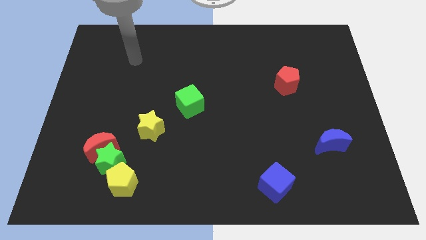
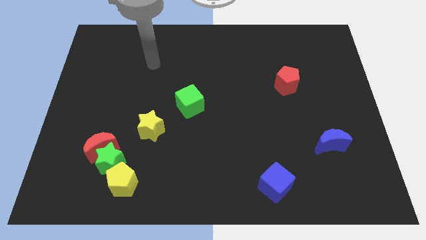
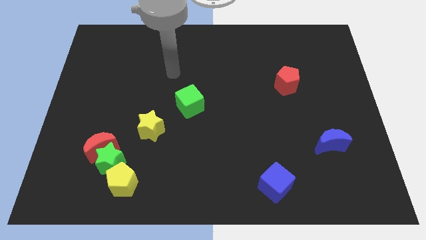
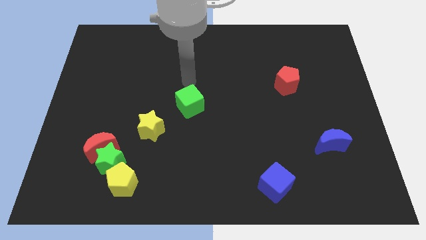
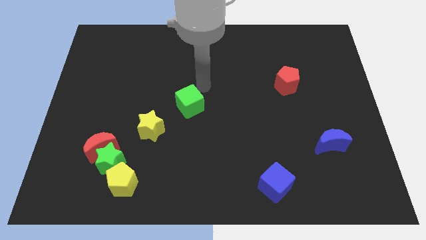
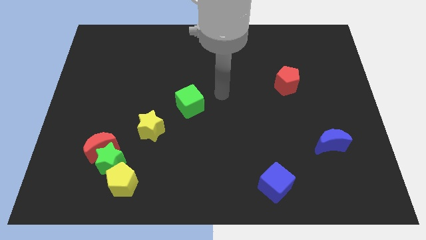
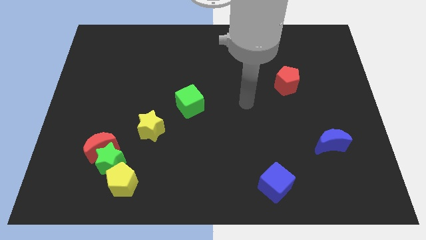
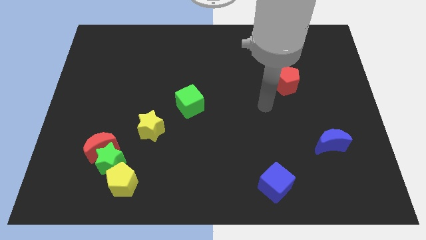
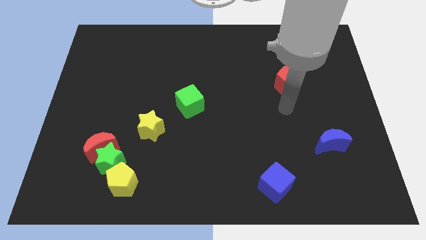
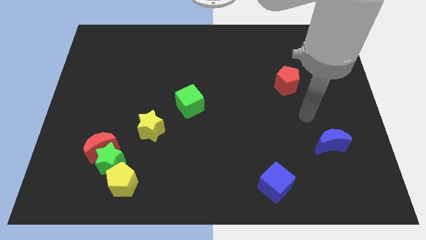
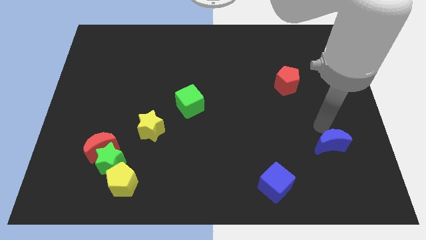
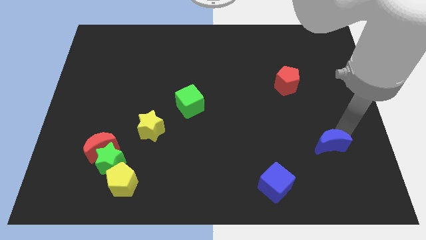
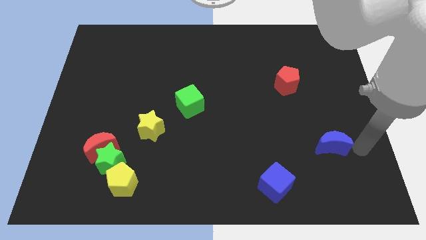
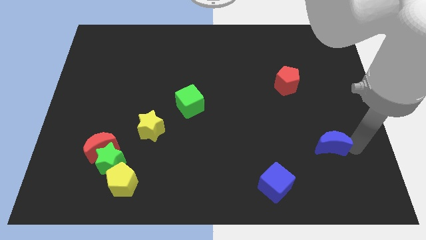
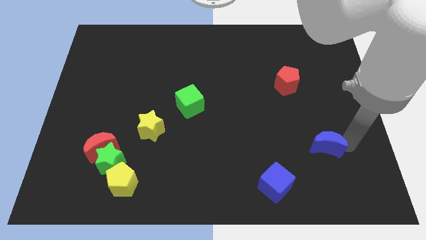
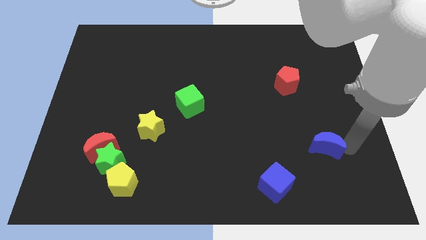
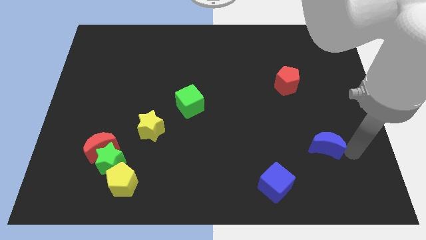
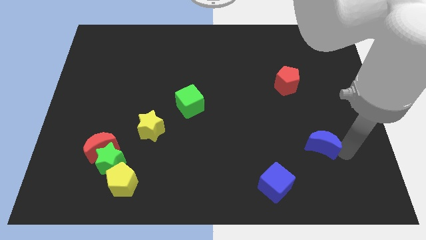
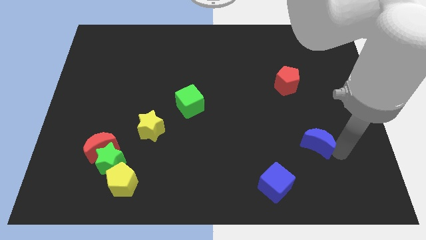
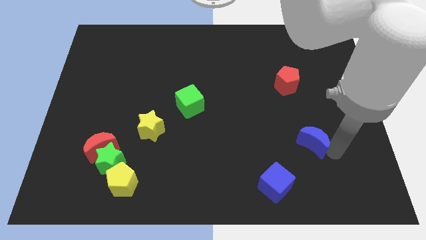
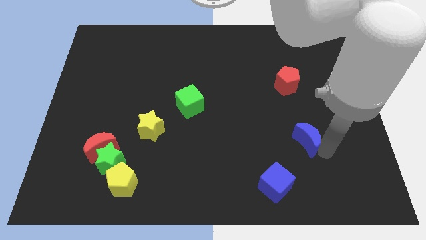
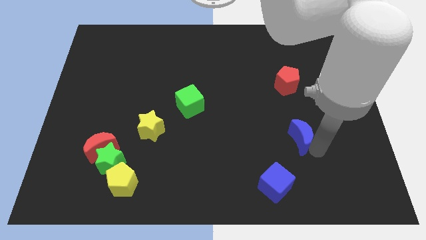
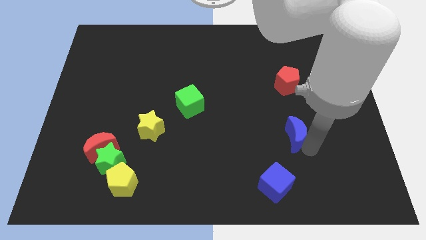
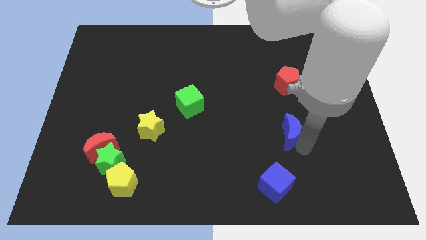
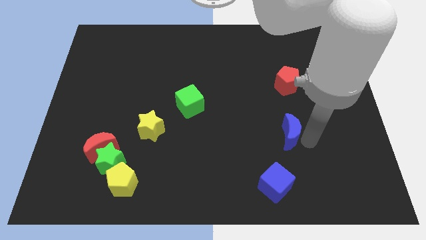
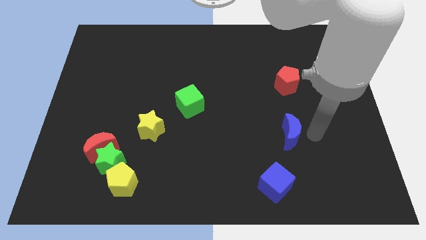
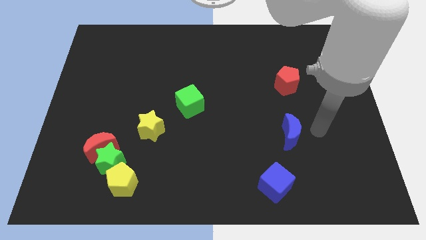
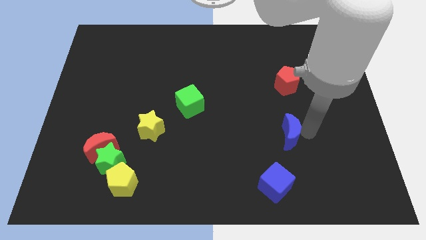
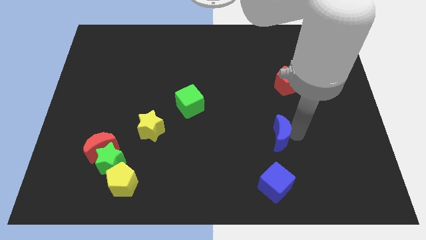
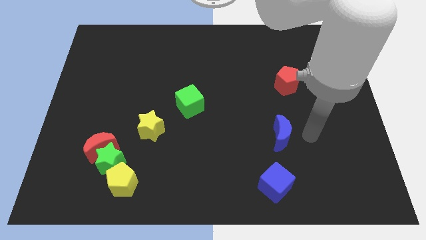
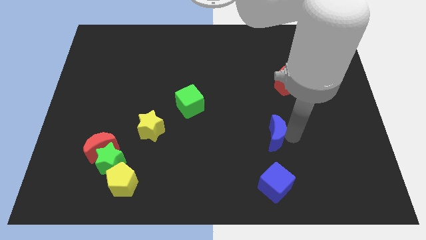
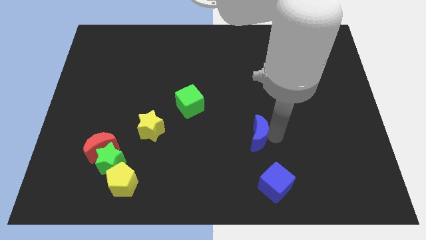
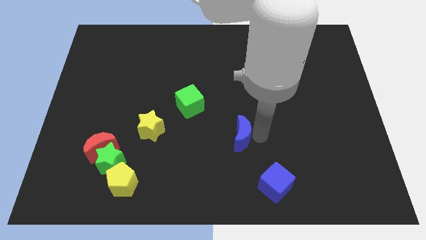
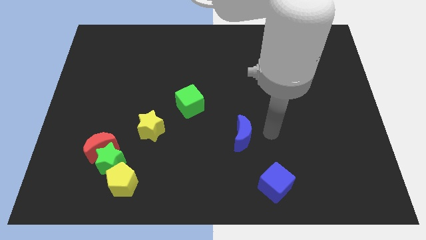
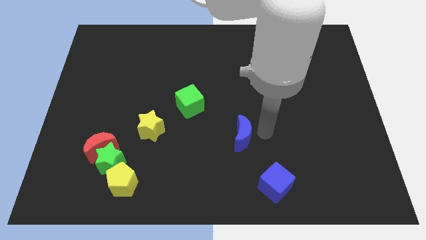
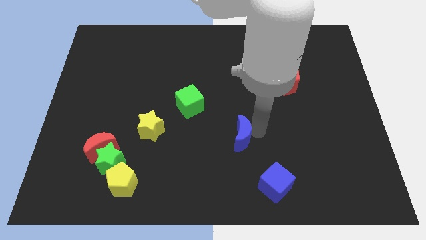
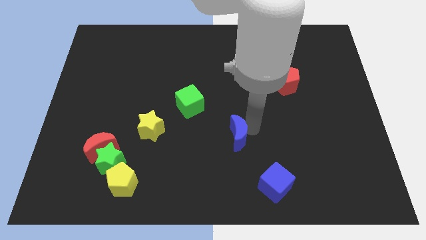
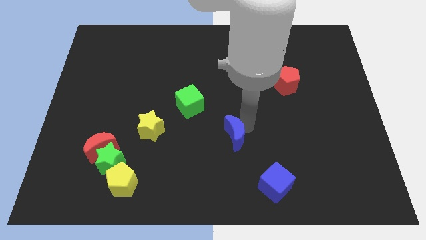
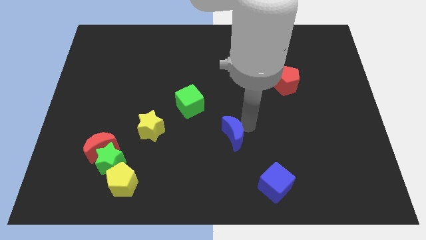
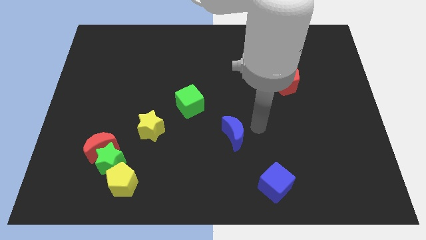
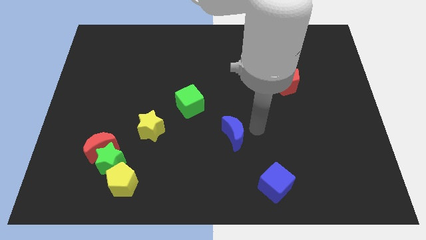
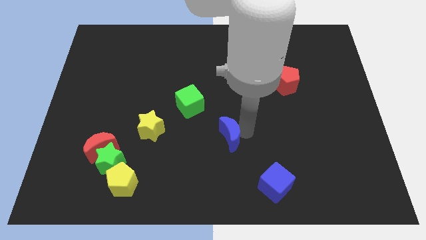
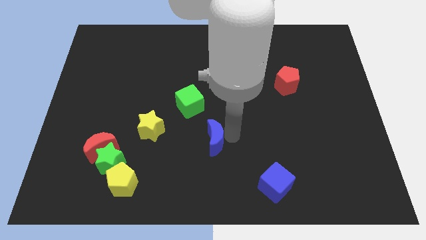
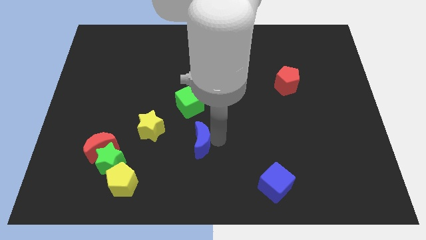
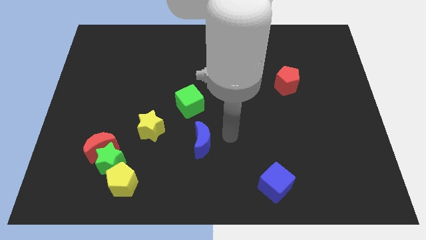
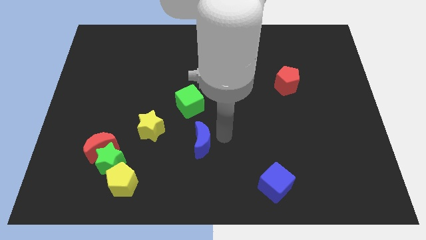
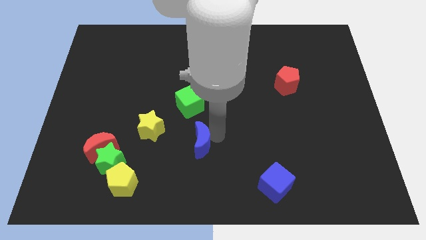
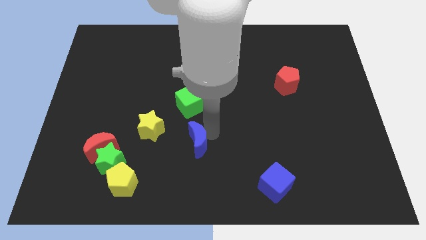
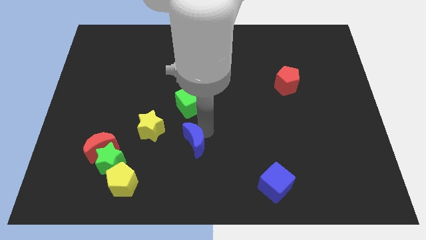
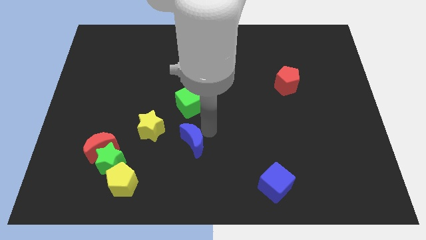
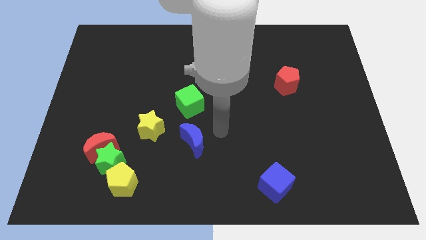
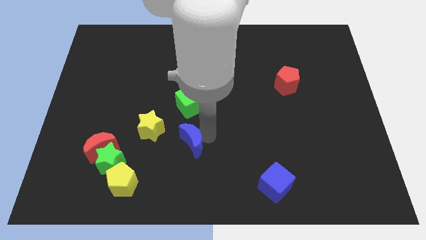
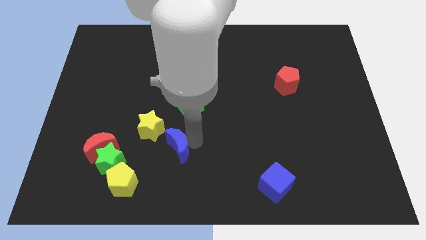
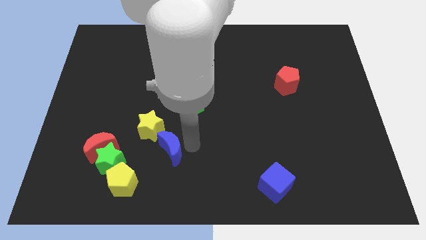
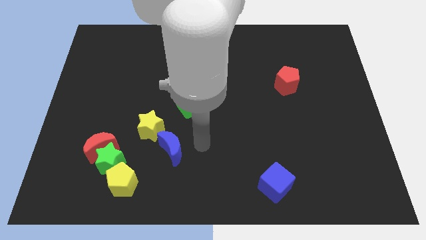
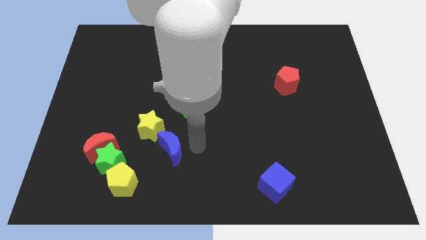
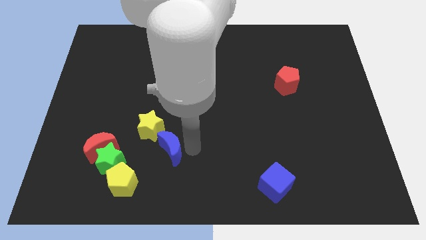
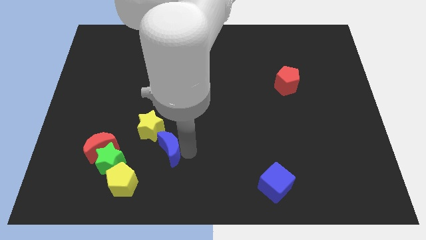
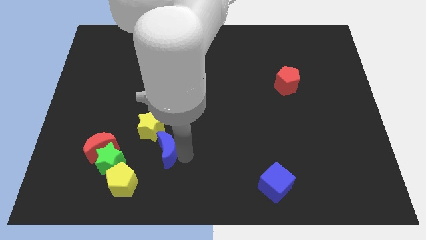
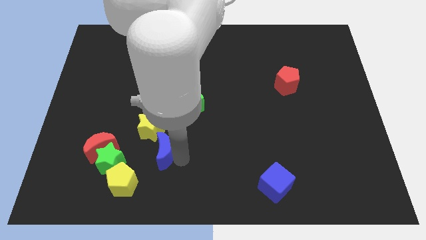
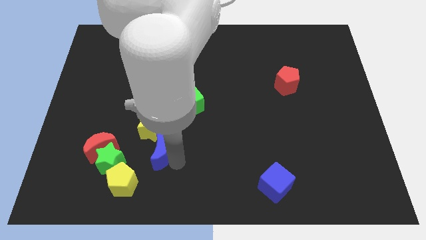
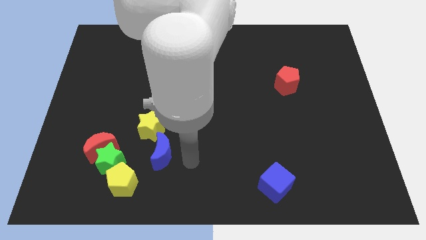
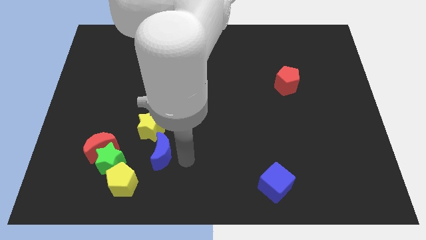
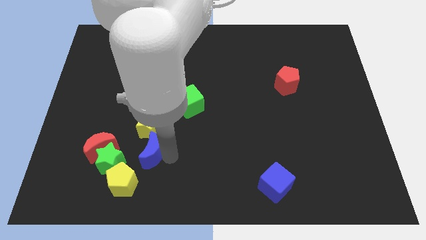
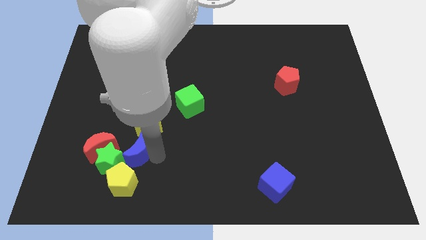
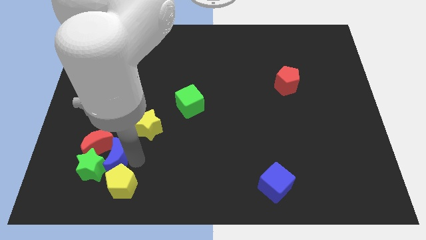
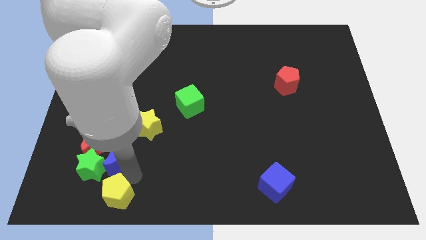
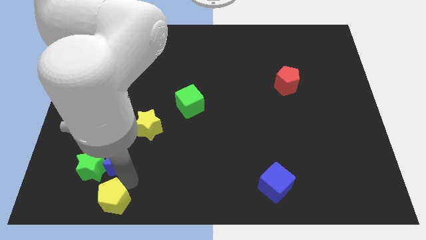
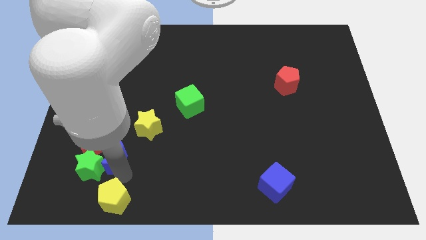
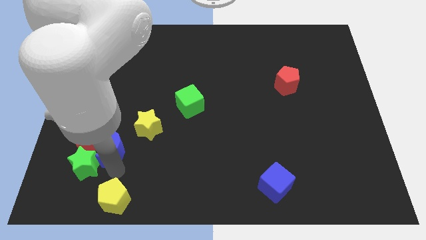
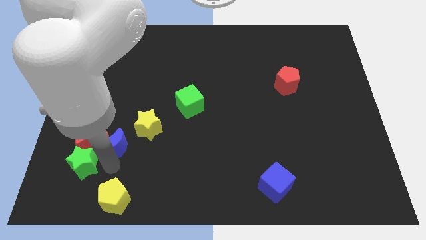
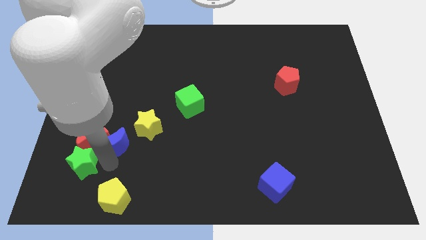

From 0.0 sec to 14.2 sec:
slide the blue moon to the left of the yellow star
